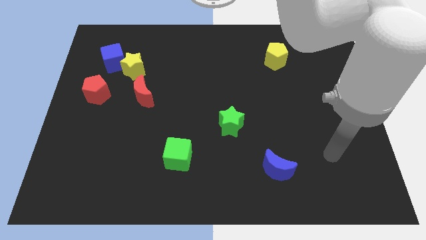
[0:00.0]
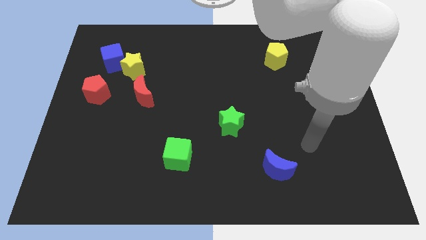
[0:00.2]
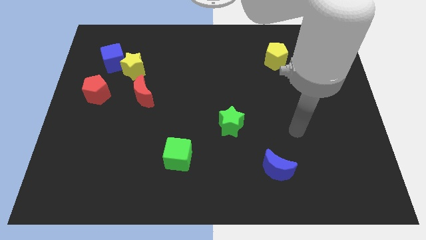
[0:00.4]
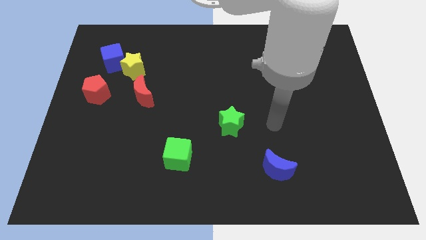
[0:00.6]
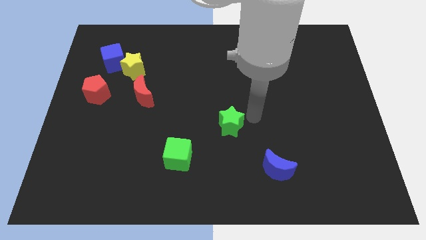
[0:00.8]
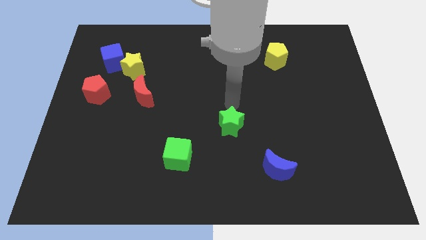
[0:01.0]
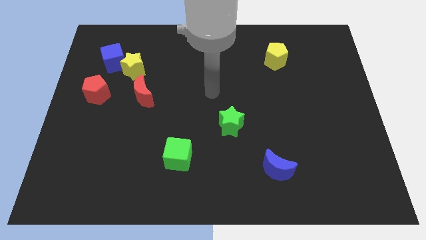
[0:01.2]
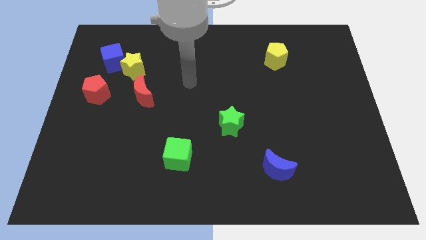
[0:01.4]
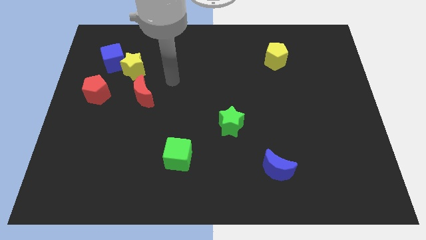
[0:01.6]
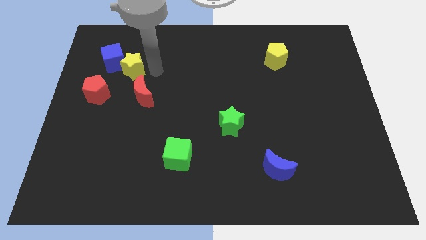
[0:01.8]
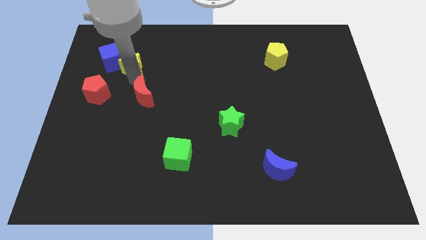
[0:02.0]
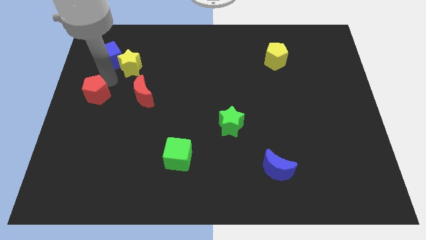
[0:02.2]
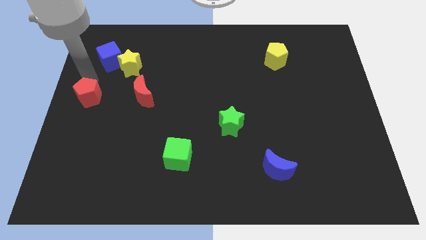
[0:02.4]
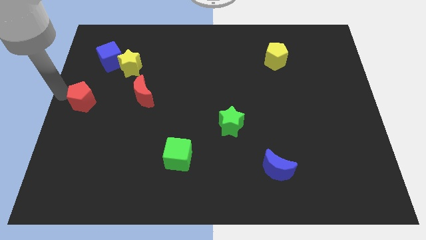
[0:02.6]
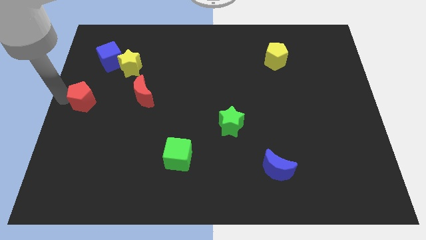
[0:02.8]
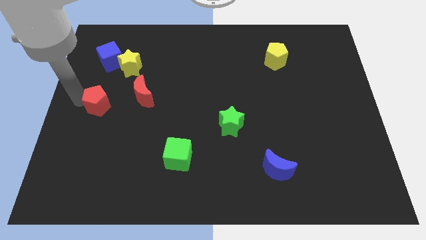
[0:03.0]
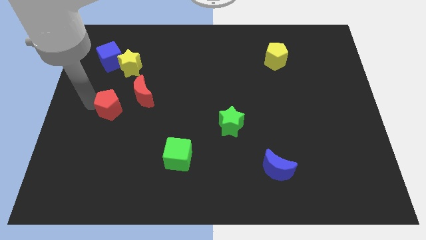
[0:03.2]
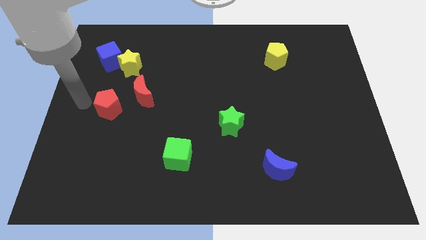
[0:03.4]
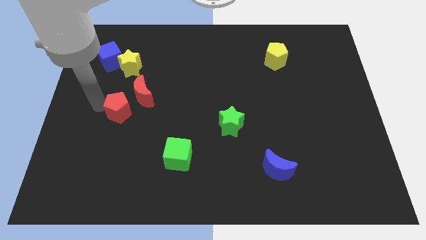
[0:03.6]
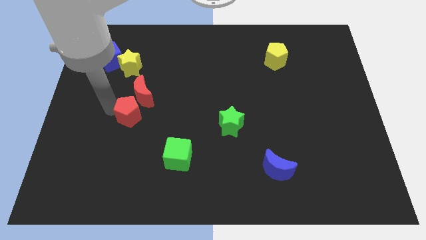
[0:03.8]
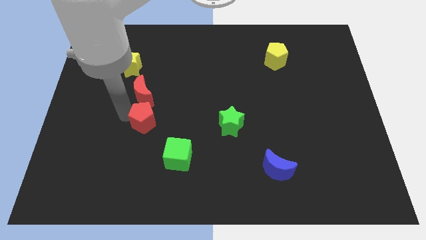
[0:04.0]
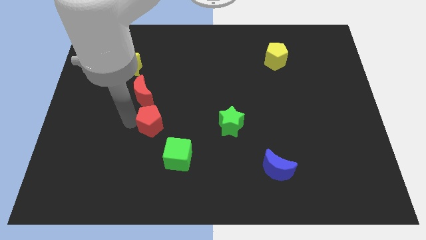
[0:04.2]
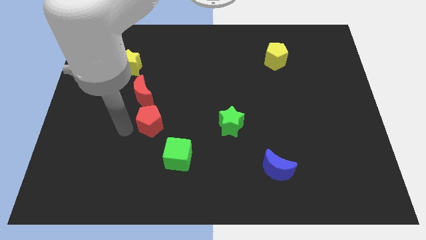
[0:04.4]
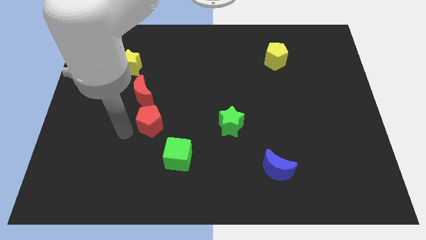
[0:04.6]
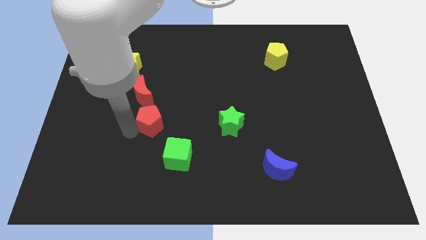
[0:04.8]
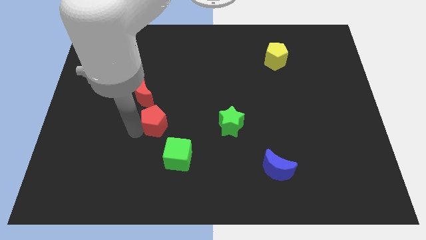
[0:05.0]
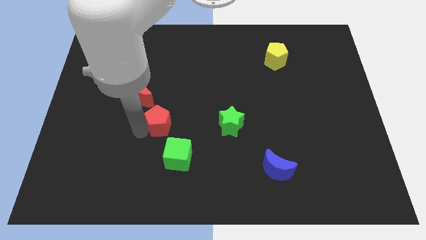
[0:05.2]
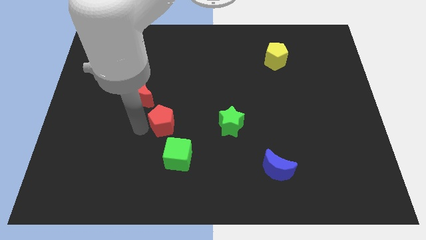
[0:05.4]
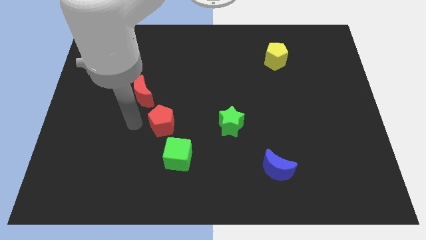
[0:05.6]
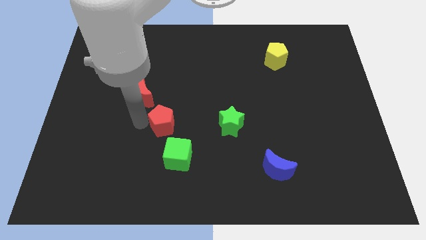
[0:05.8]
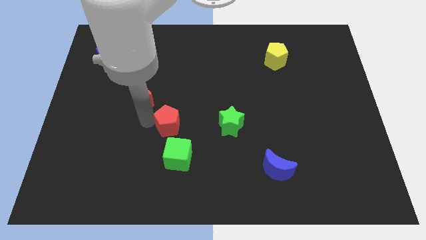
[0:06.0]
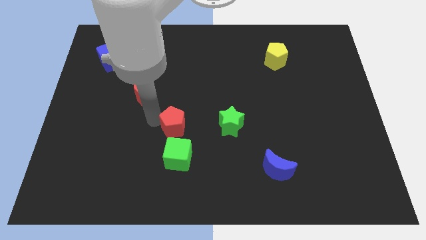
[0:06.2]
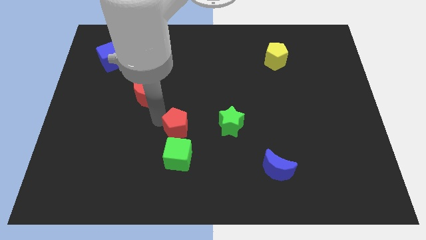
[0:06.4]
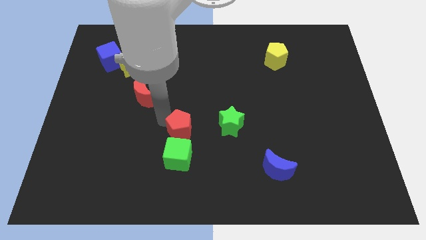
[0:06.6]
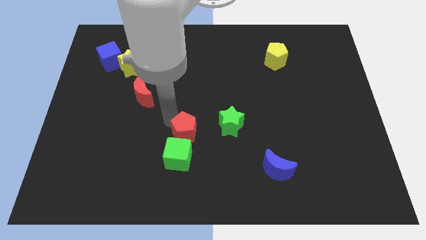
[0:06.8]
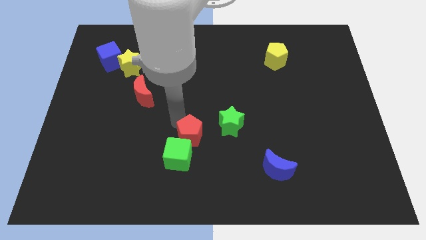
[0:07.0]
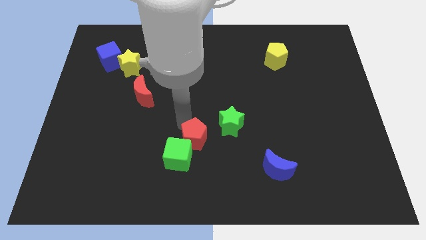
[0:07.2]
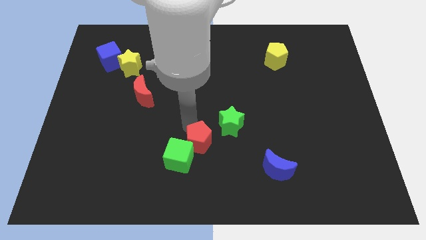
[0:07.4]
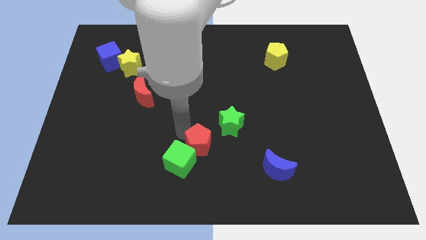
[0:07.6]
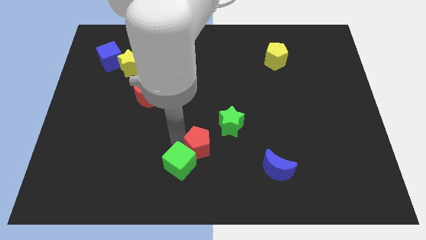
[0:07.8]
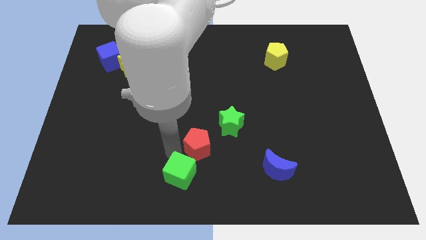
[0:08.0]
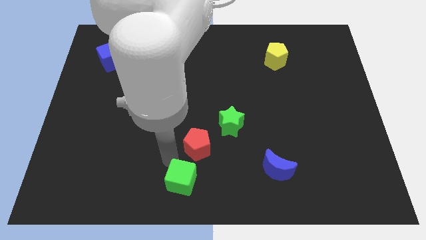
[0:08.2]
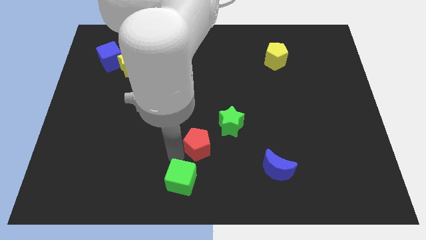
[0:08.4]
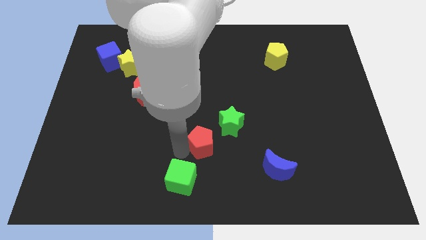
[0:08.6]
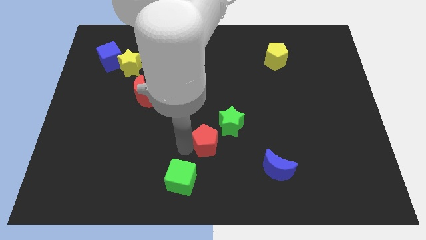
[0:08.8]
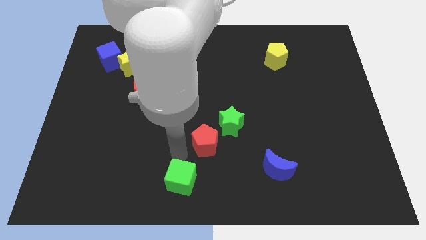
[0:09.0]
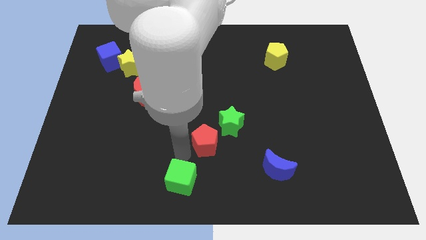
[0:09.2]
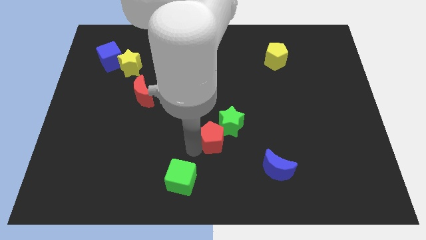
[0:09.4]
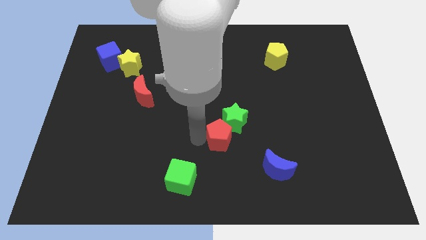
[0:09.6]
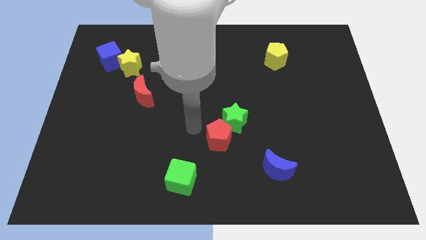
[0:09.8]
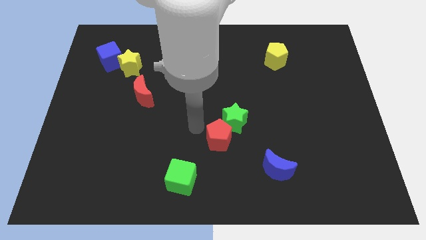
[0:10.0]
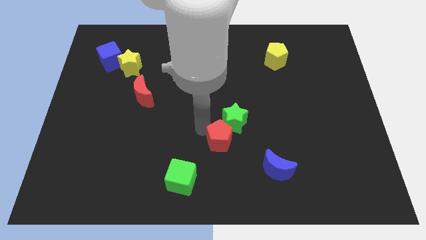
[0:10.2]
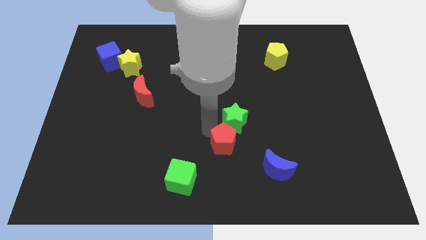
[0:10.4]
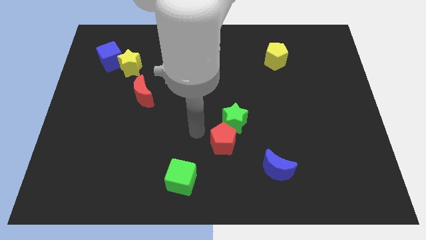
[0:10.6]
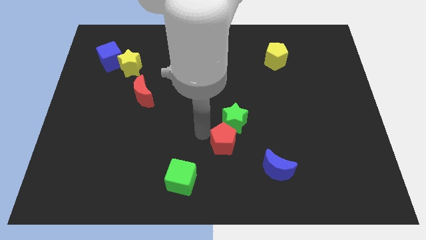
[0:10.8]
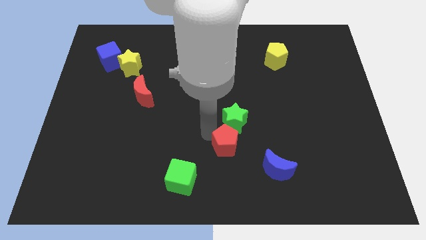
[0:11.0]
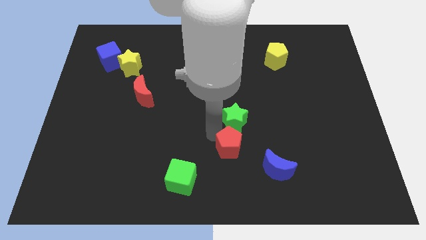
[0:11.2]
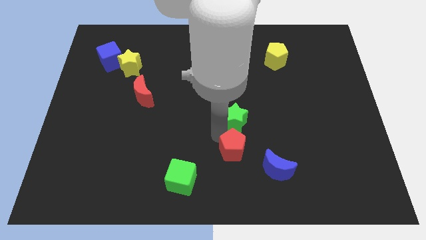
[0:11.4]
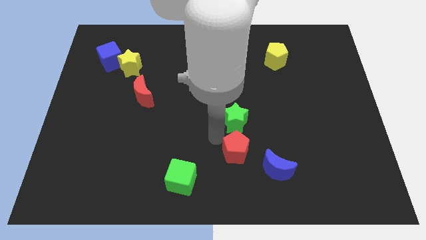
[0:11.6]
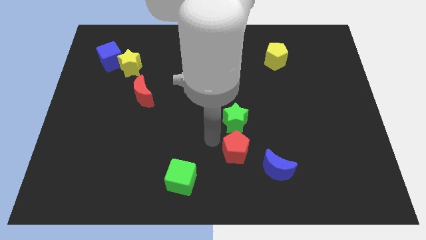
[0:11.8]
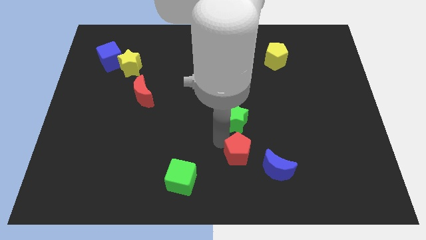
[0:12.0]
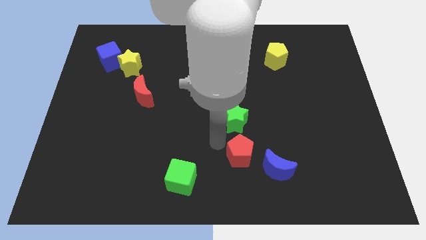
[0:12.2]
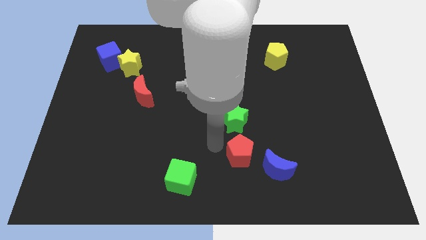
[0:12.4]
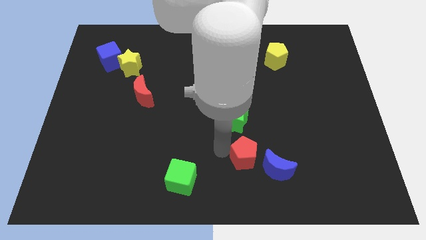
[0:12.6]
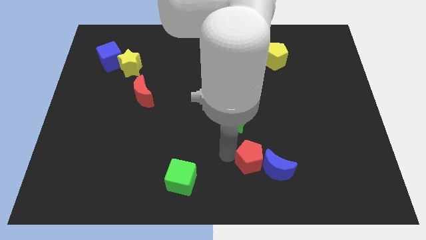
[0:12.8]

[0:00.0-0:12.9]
move the red pentagon next to the blue moon

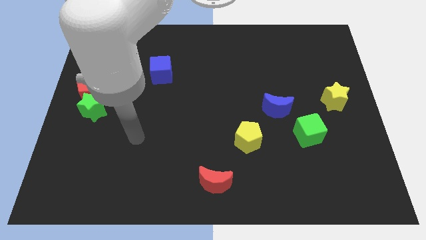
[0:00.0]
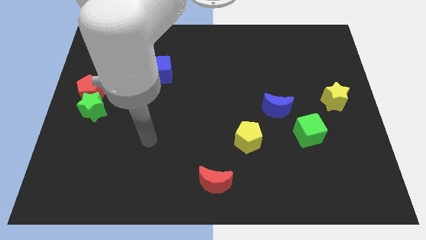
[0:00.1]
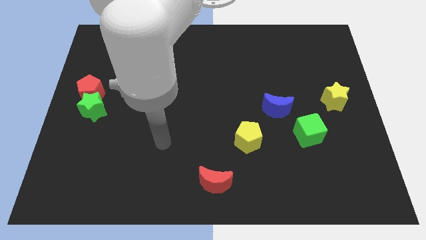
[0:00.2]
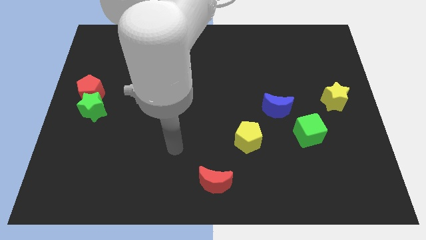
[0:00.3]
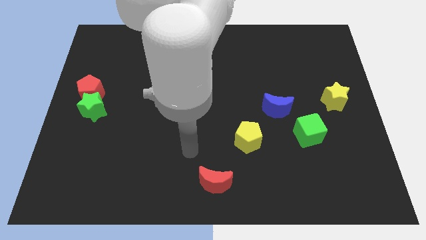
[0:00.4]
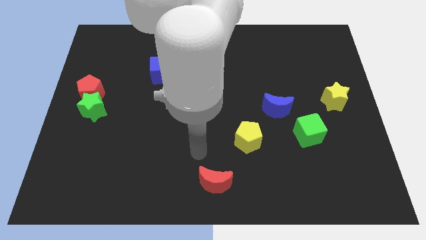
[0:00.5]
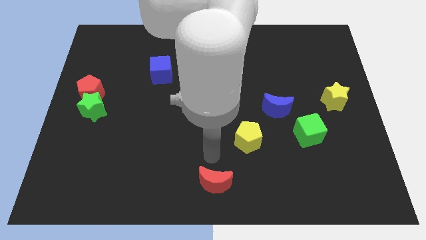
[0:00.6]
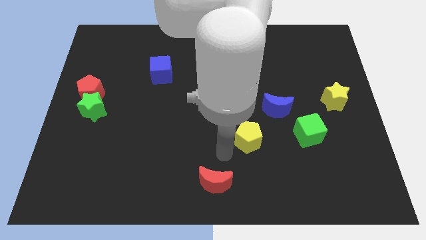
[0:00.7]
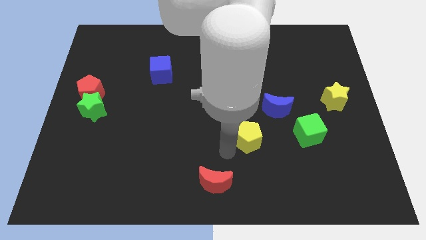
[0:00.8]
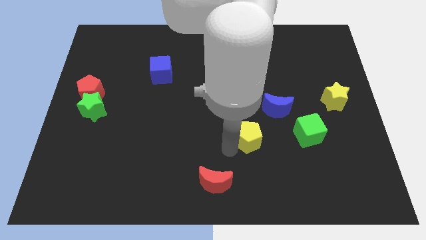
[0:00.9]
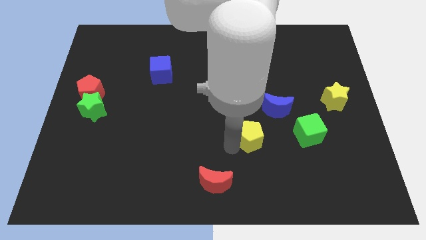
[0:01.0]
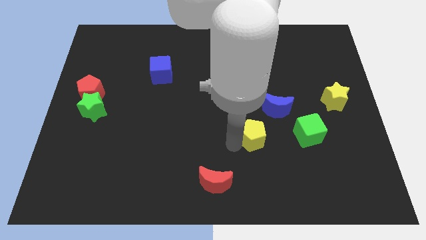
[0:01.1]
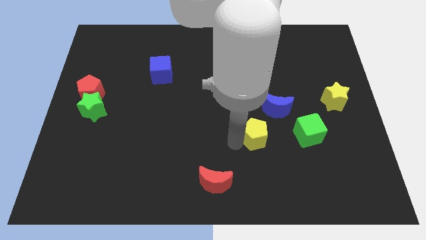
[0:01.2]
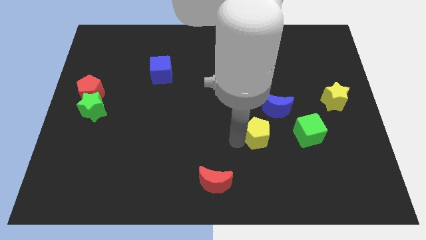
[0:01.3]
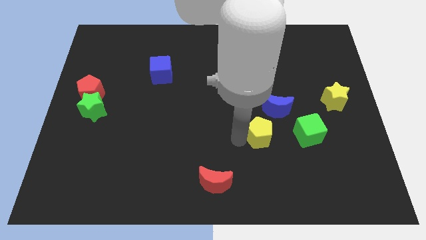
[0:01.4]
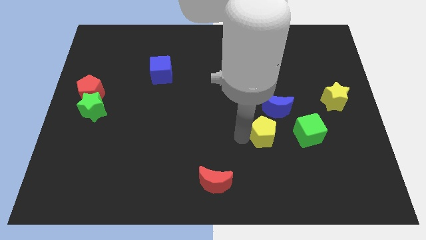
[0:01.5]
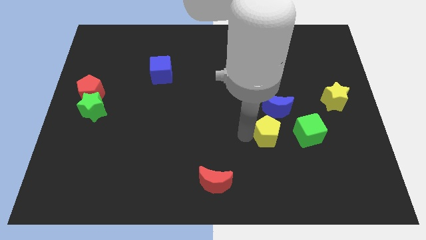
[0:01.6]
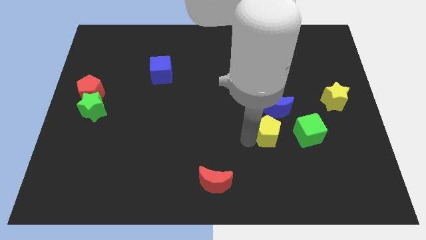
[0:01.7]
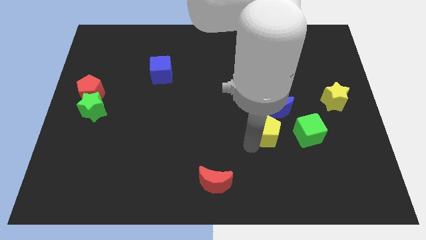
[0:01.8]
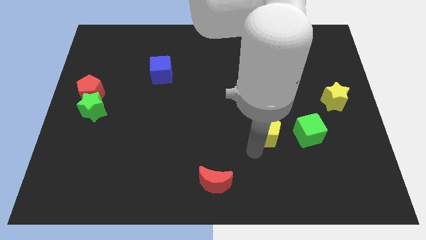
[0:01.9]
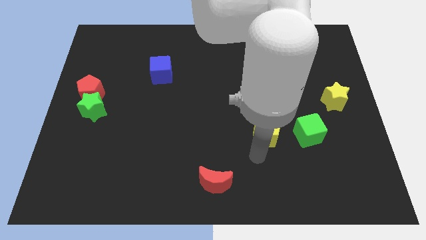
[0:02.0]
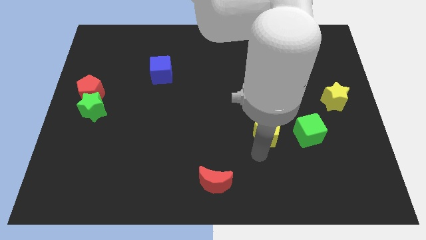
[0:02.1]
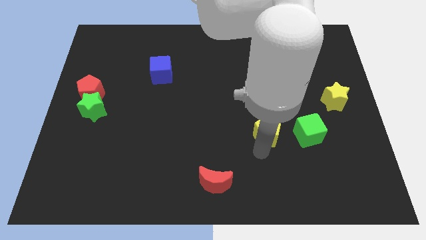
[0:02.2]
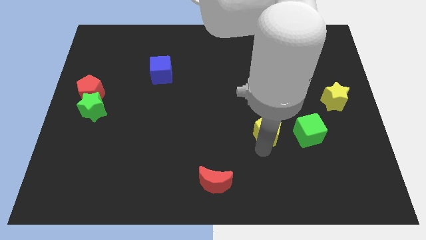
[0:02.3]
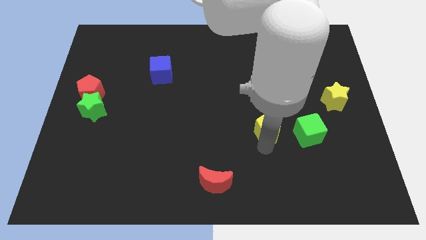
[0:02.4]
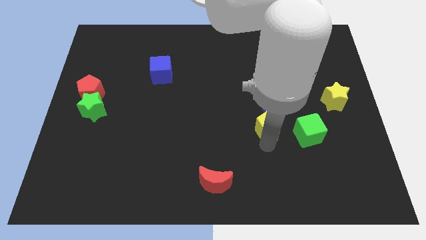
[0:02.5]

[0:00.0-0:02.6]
put the yellow pentagon to the blue moon
